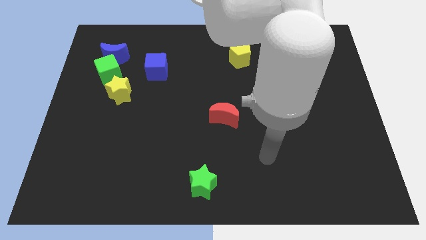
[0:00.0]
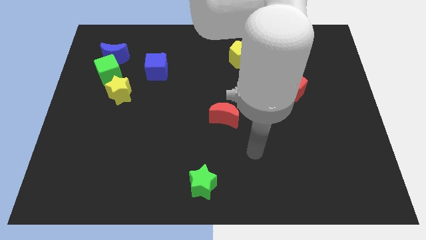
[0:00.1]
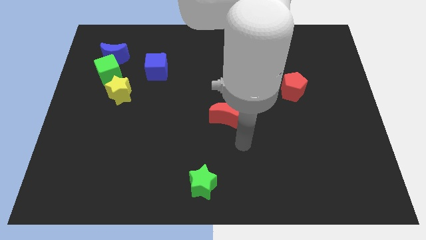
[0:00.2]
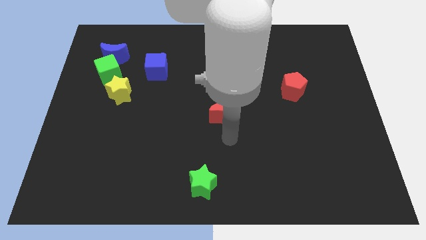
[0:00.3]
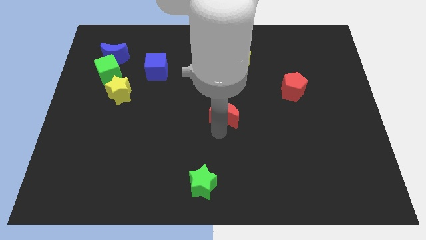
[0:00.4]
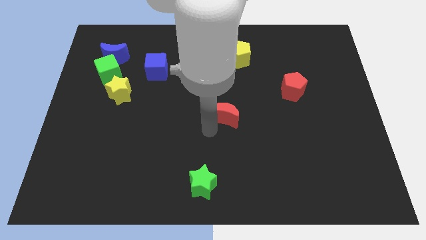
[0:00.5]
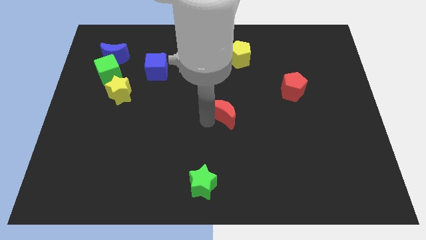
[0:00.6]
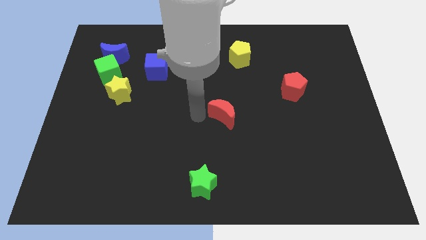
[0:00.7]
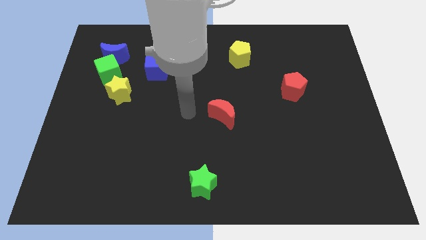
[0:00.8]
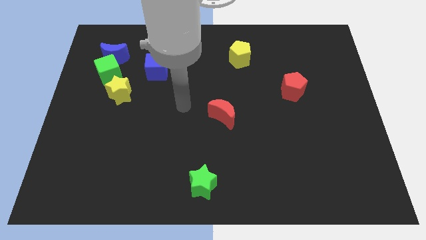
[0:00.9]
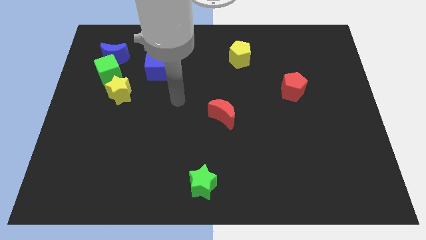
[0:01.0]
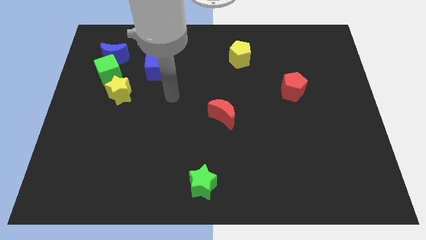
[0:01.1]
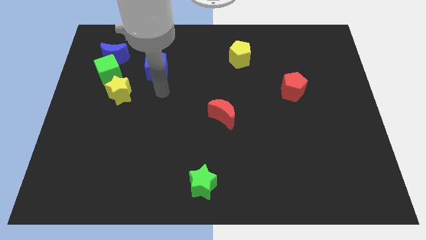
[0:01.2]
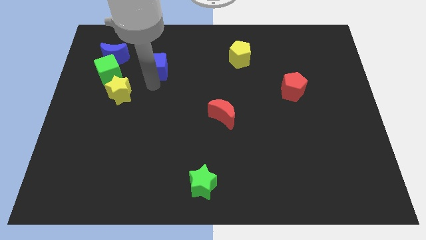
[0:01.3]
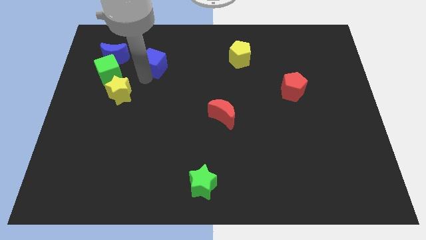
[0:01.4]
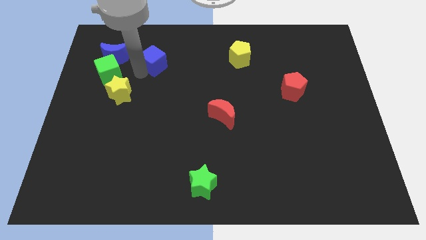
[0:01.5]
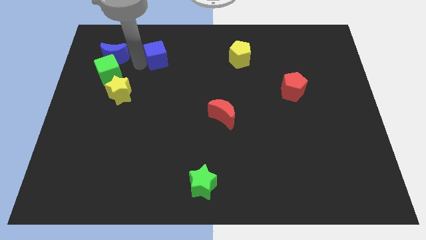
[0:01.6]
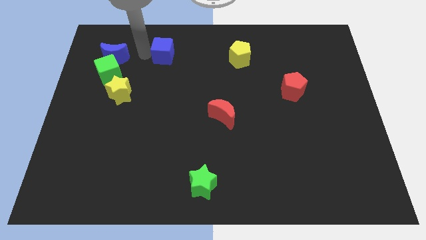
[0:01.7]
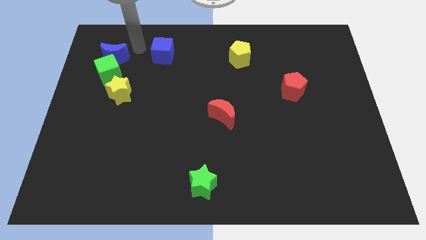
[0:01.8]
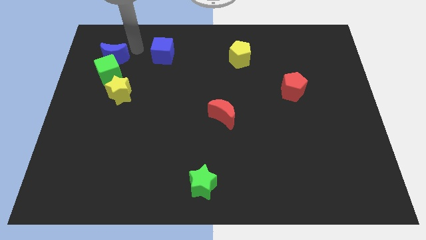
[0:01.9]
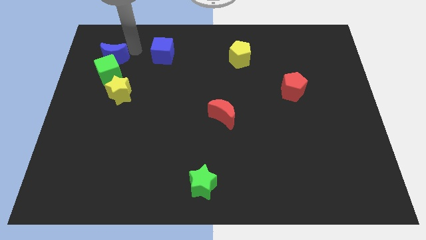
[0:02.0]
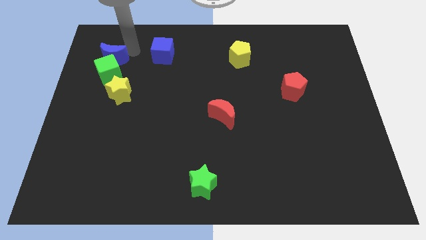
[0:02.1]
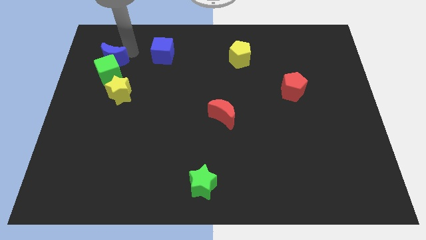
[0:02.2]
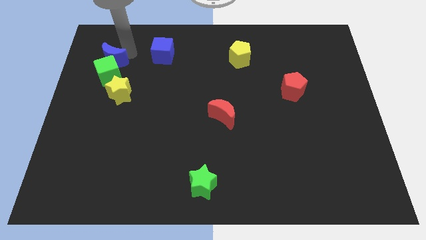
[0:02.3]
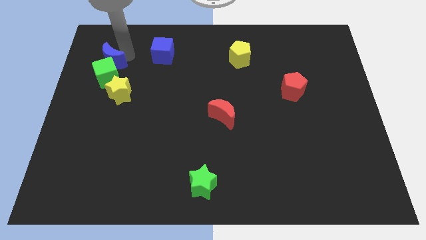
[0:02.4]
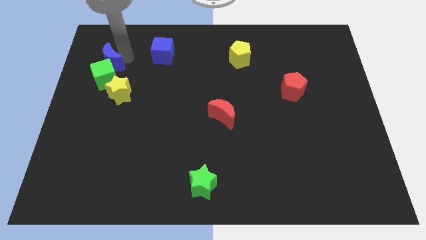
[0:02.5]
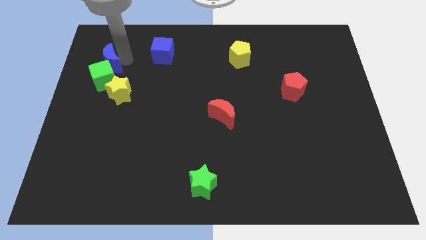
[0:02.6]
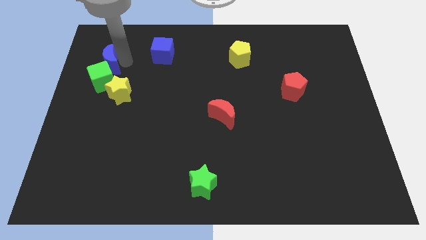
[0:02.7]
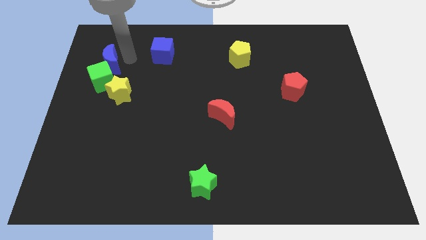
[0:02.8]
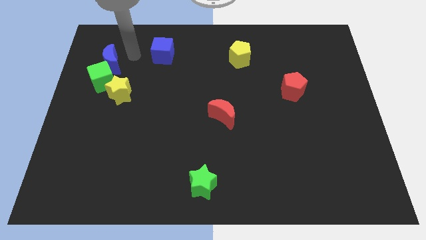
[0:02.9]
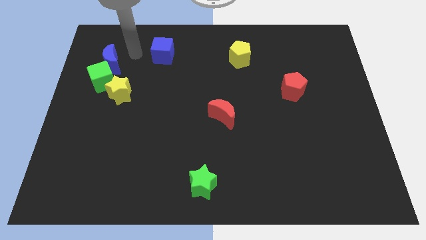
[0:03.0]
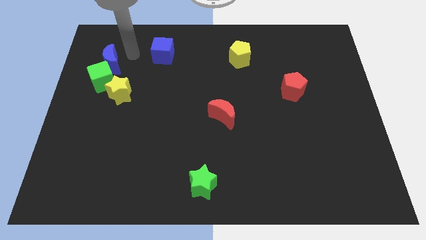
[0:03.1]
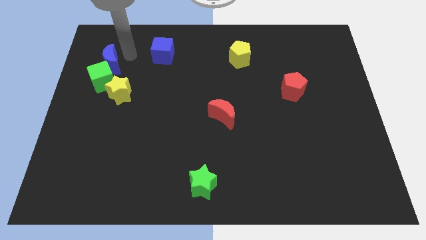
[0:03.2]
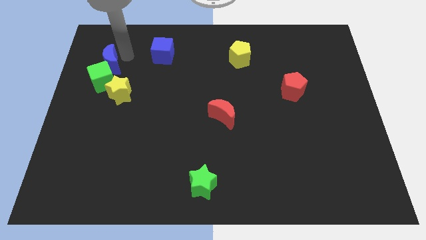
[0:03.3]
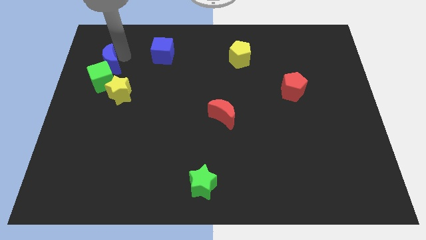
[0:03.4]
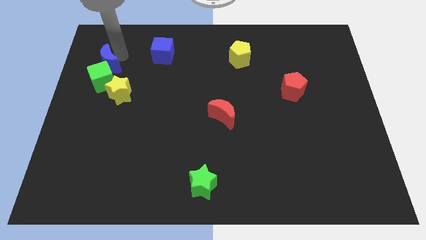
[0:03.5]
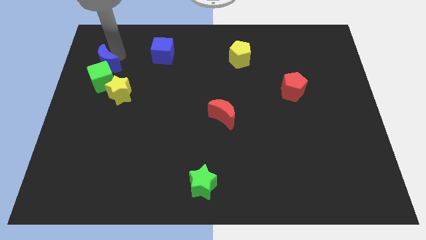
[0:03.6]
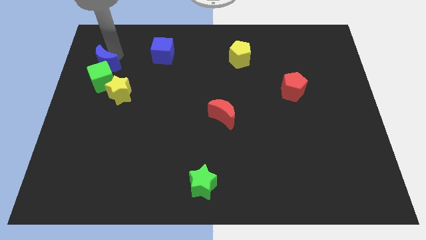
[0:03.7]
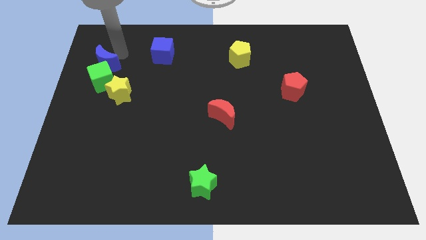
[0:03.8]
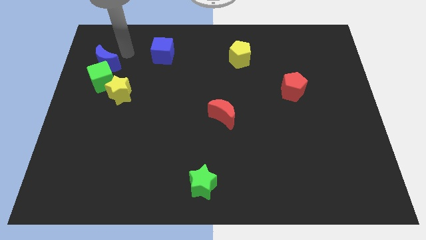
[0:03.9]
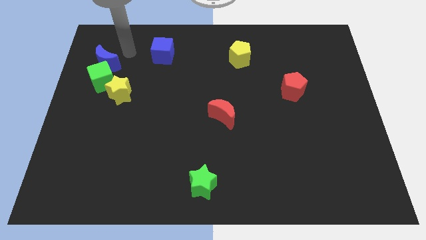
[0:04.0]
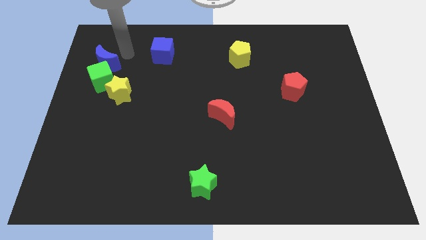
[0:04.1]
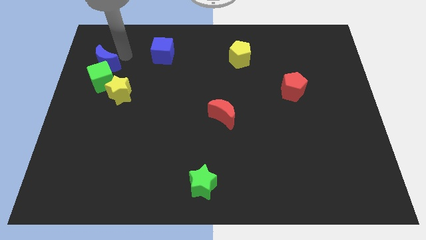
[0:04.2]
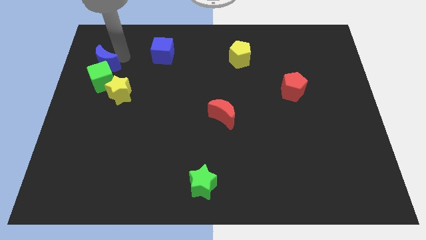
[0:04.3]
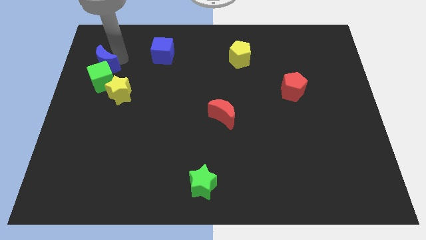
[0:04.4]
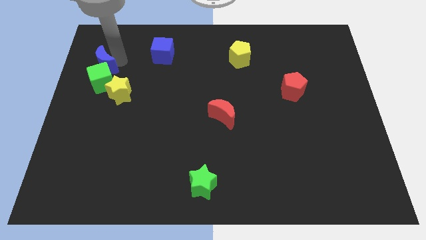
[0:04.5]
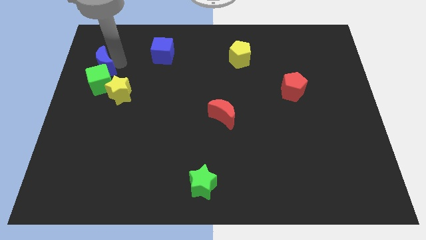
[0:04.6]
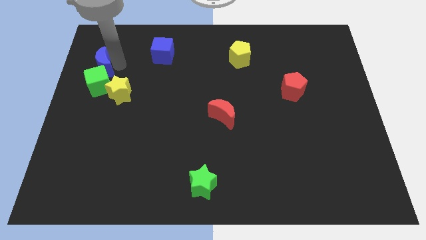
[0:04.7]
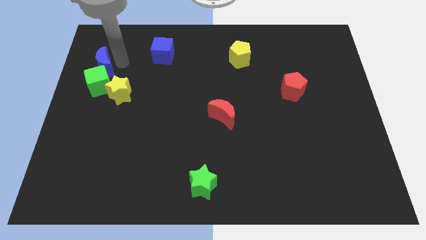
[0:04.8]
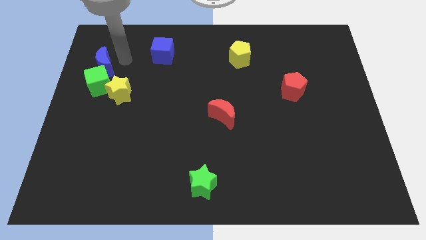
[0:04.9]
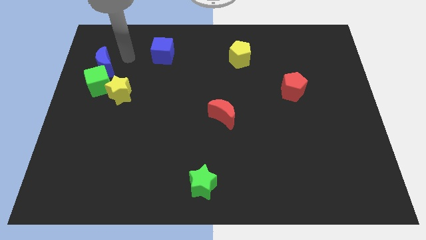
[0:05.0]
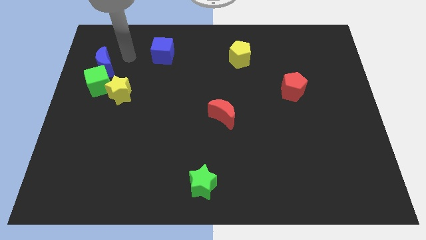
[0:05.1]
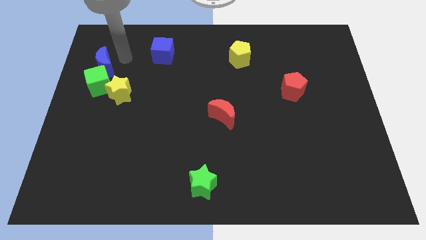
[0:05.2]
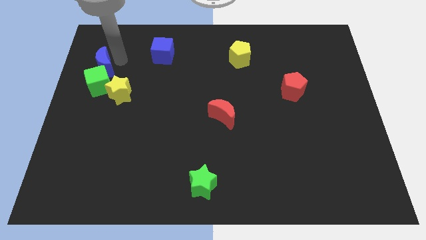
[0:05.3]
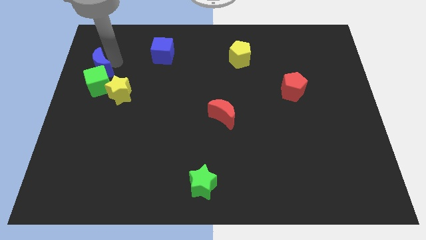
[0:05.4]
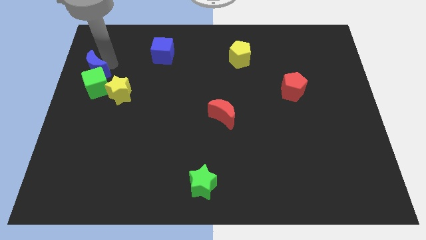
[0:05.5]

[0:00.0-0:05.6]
put the blue moon to the left side of the board
